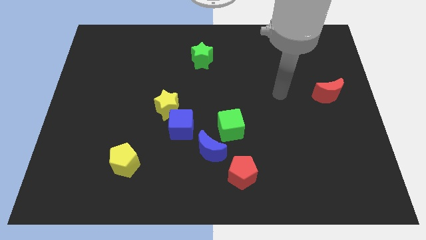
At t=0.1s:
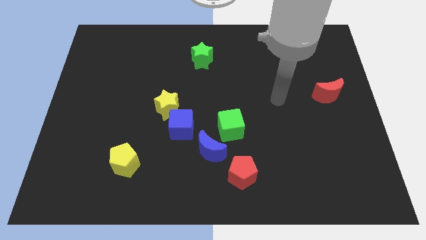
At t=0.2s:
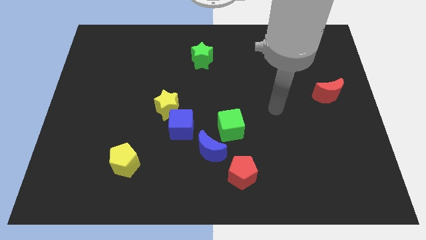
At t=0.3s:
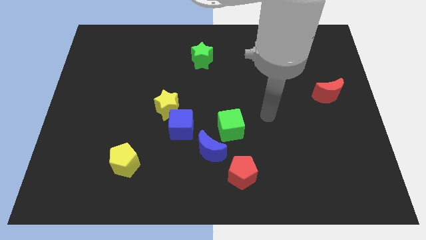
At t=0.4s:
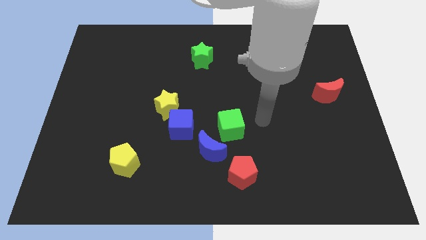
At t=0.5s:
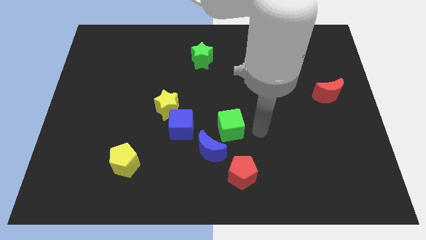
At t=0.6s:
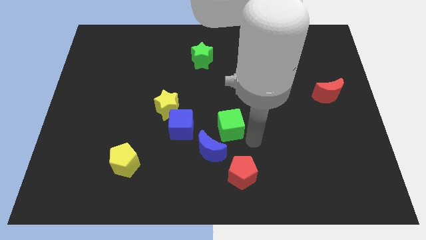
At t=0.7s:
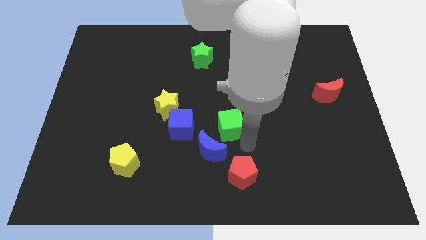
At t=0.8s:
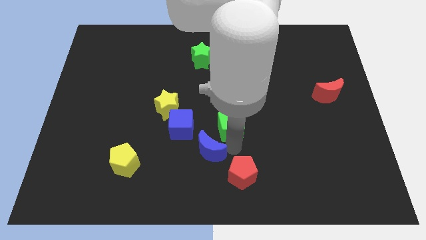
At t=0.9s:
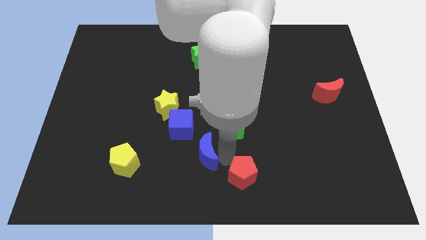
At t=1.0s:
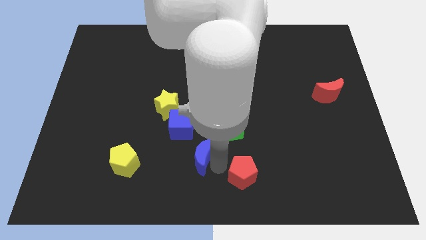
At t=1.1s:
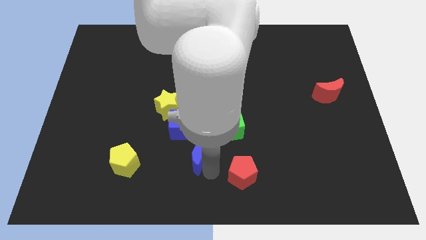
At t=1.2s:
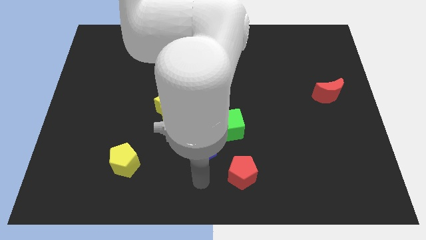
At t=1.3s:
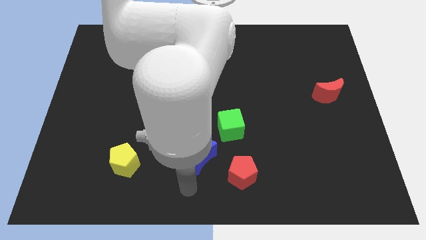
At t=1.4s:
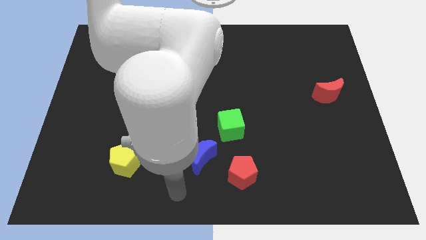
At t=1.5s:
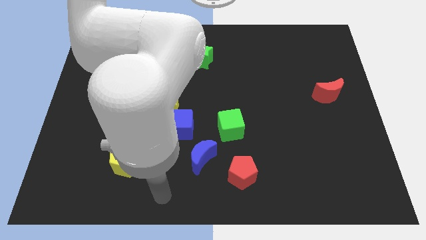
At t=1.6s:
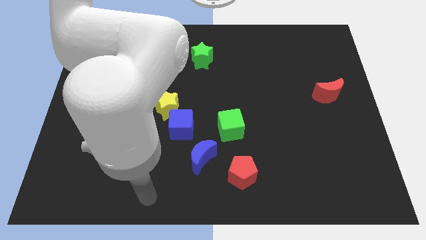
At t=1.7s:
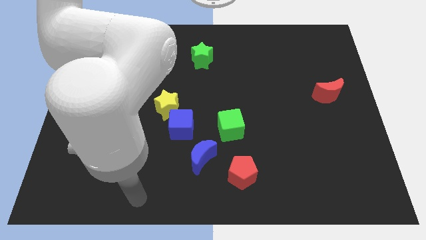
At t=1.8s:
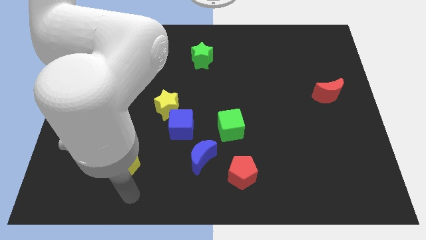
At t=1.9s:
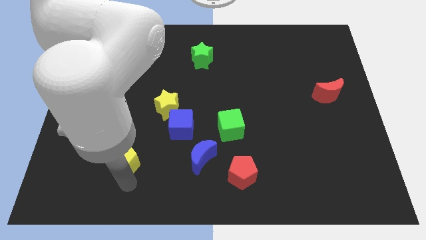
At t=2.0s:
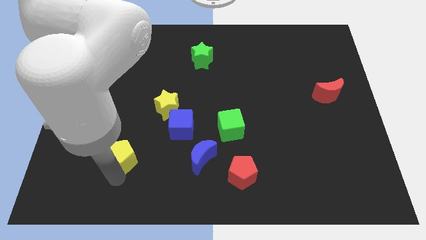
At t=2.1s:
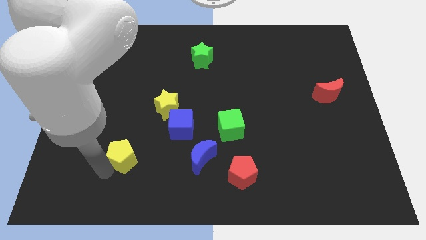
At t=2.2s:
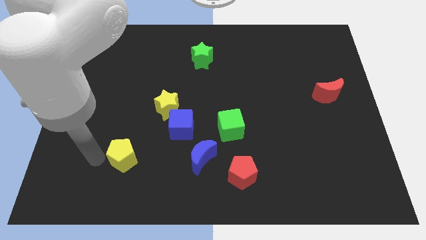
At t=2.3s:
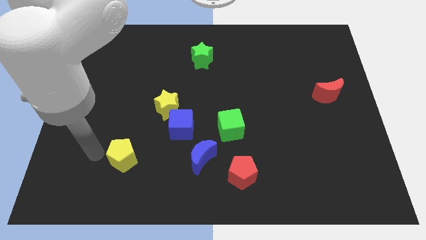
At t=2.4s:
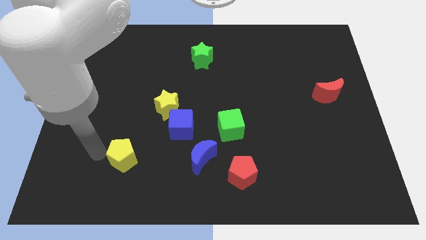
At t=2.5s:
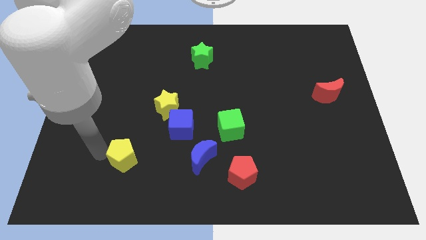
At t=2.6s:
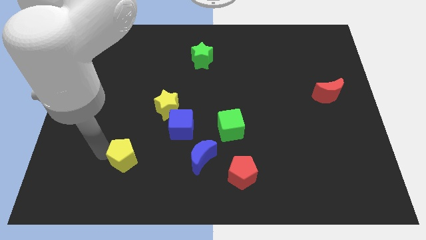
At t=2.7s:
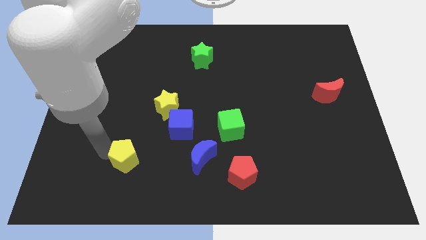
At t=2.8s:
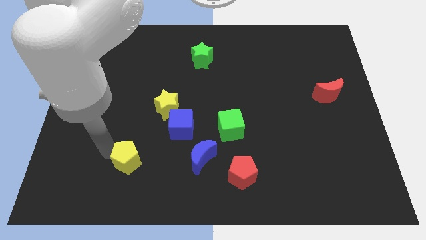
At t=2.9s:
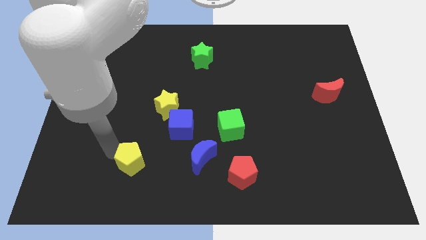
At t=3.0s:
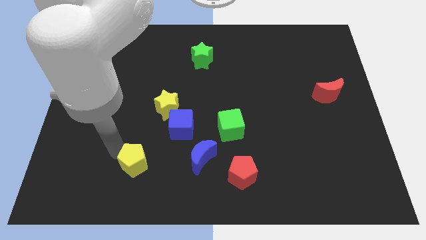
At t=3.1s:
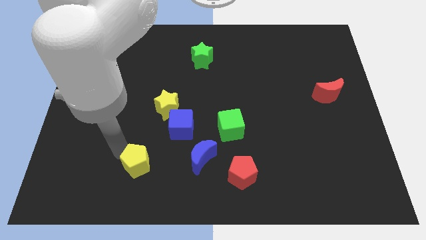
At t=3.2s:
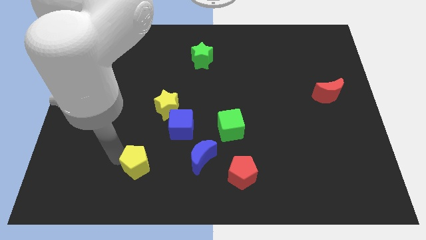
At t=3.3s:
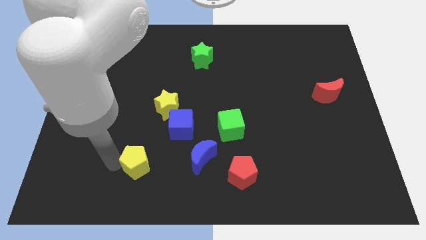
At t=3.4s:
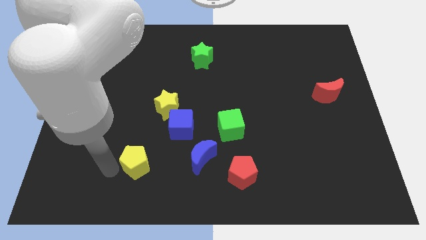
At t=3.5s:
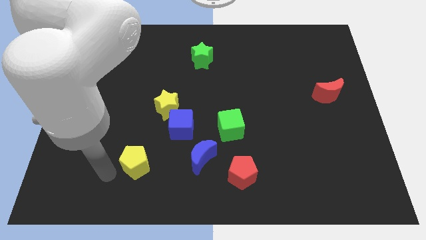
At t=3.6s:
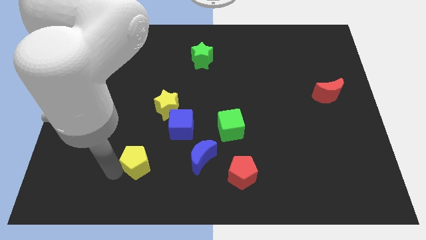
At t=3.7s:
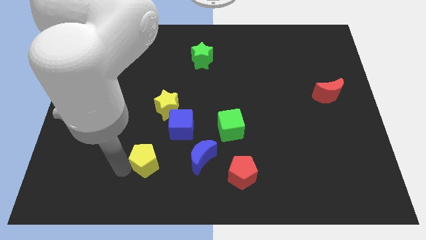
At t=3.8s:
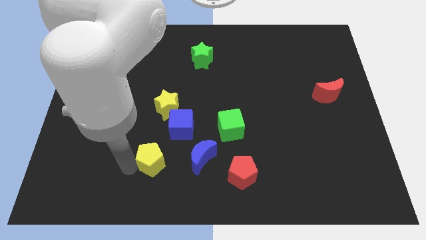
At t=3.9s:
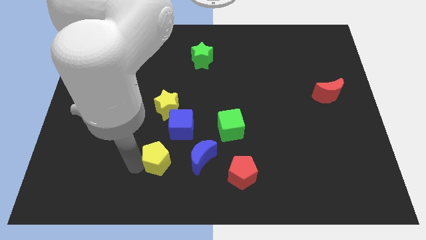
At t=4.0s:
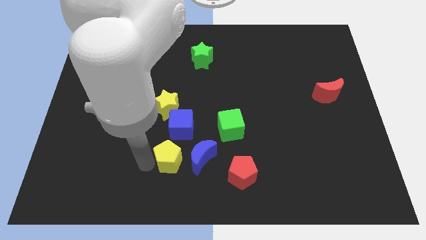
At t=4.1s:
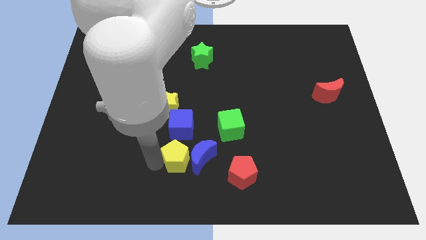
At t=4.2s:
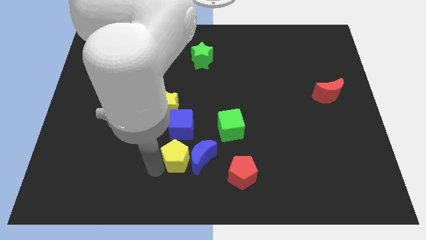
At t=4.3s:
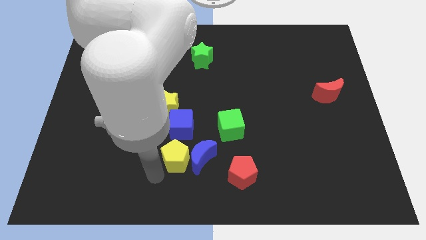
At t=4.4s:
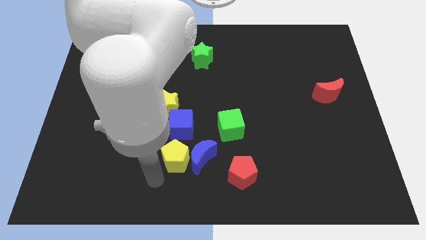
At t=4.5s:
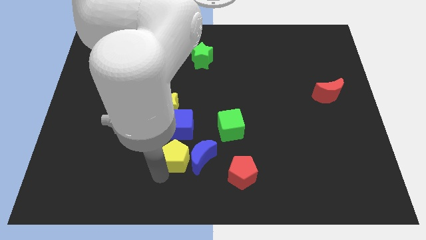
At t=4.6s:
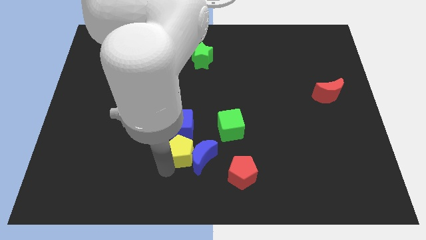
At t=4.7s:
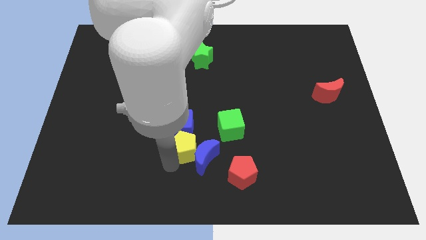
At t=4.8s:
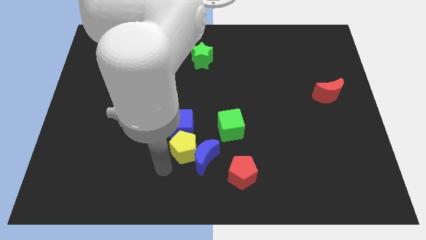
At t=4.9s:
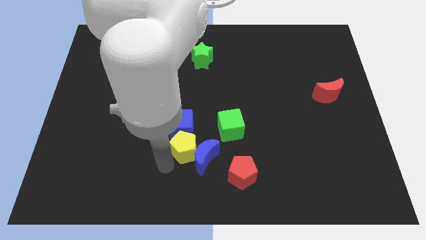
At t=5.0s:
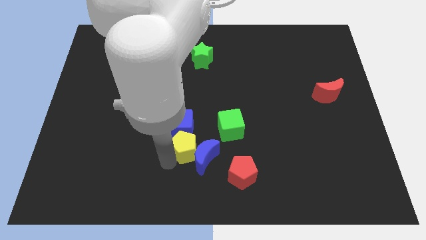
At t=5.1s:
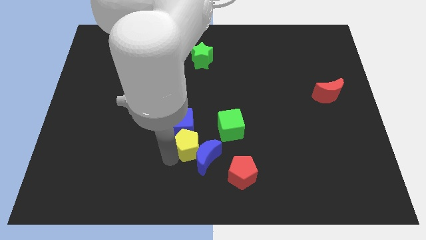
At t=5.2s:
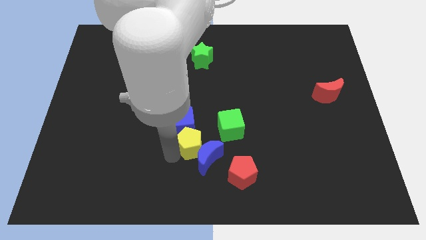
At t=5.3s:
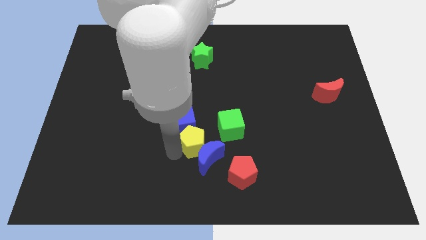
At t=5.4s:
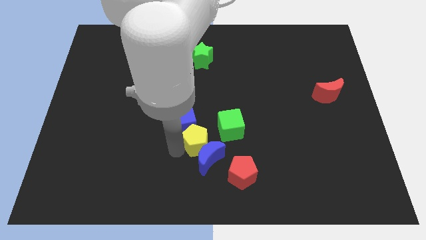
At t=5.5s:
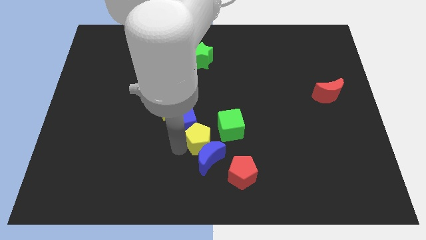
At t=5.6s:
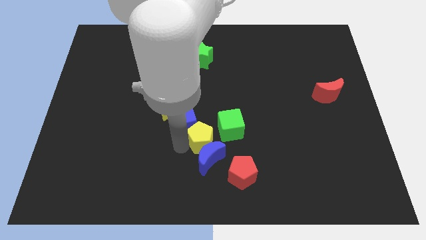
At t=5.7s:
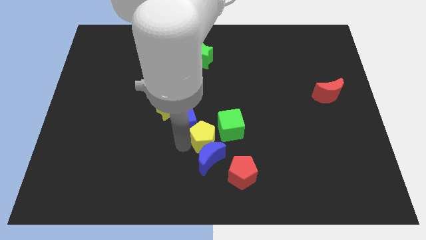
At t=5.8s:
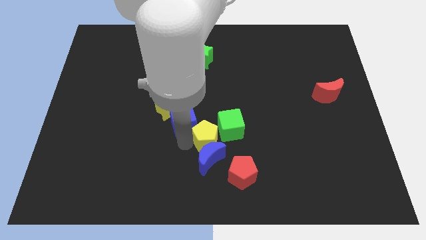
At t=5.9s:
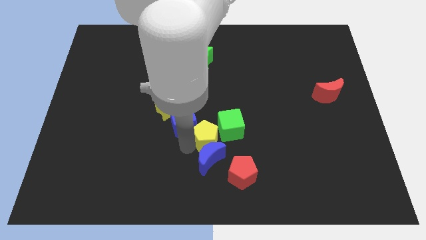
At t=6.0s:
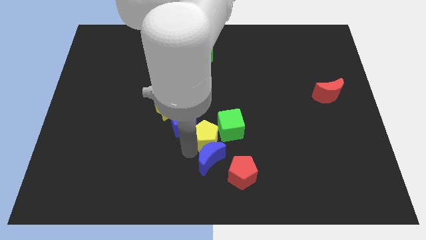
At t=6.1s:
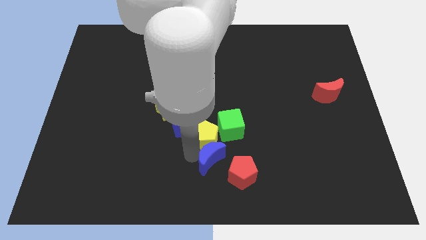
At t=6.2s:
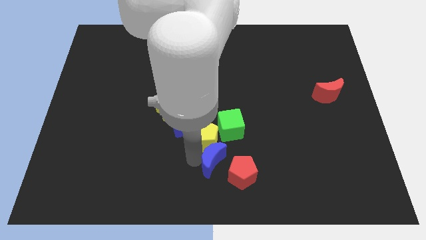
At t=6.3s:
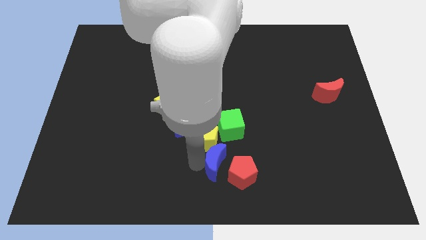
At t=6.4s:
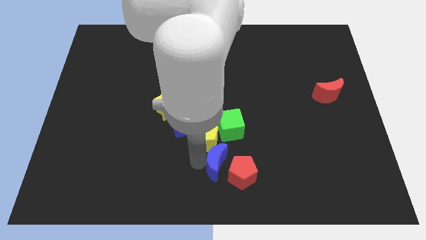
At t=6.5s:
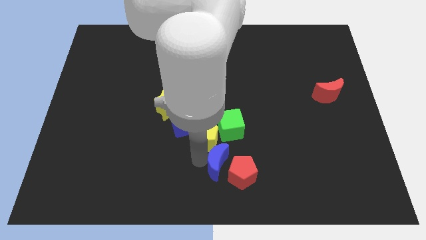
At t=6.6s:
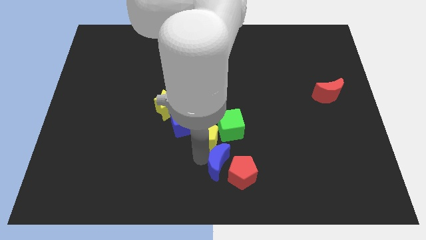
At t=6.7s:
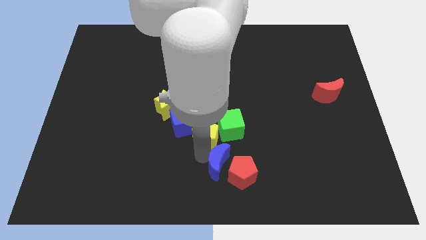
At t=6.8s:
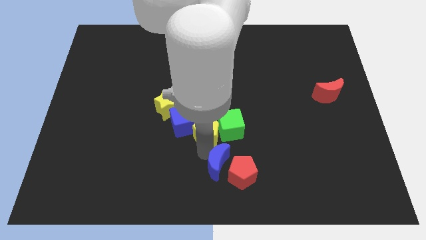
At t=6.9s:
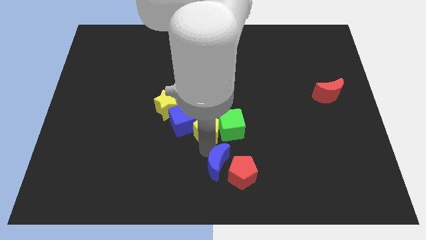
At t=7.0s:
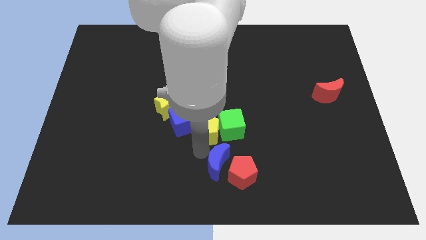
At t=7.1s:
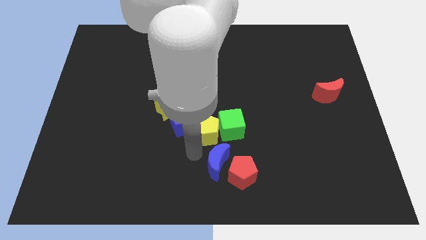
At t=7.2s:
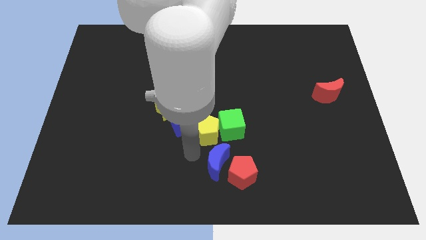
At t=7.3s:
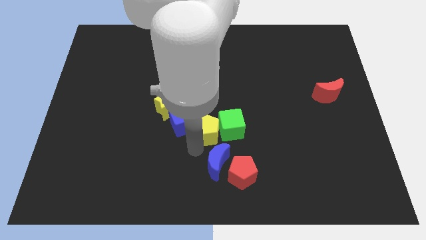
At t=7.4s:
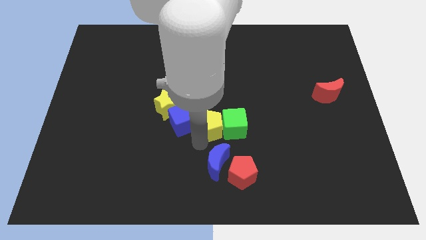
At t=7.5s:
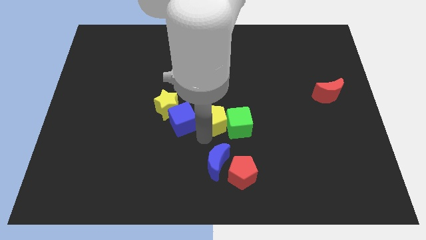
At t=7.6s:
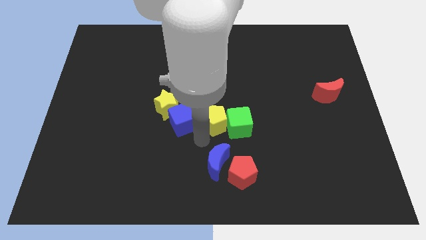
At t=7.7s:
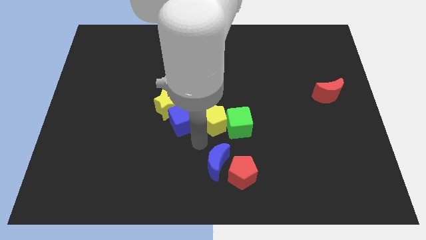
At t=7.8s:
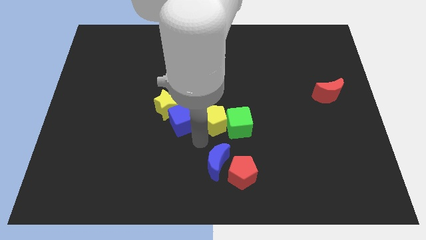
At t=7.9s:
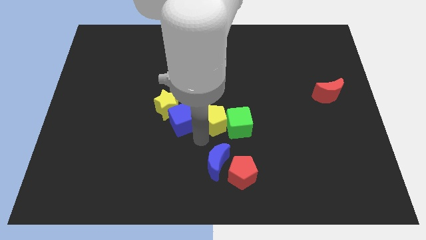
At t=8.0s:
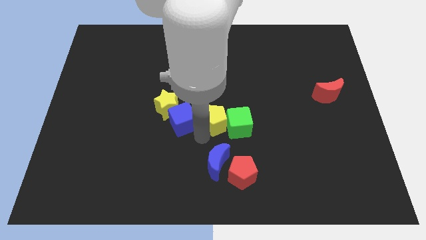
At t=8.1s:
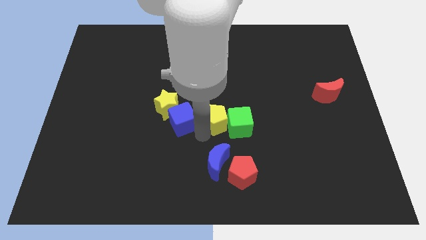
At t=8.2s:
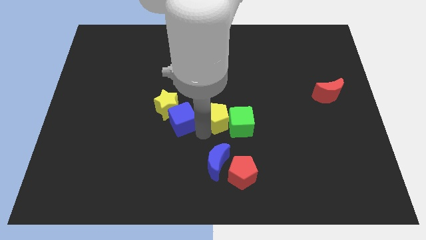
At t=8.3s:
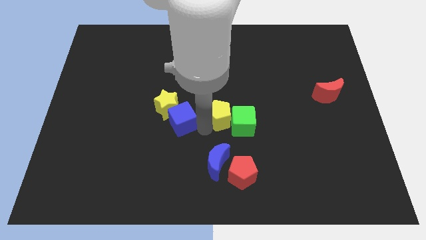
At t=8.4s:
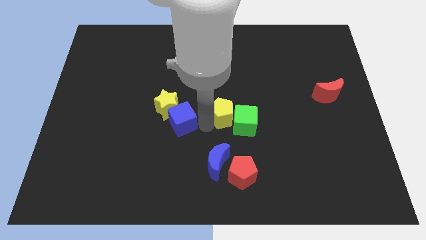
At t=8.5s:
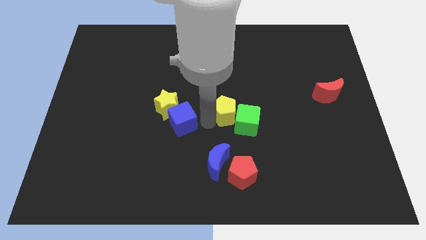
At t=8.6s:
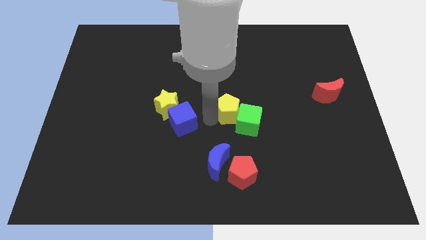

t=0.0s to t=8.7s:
move the yellow pentagon to the top of the green cube
